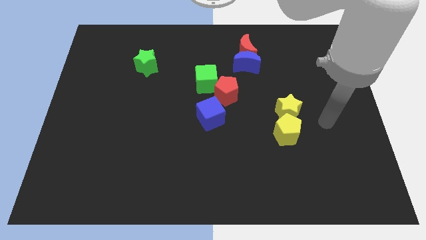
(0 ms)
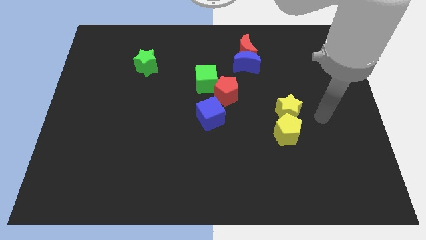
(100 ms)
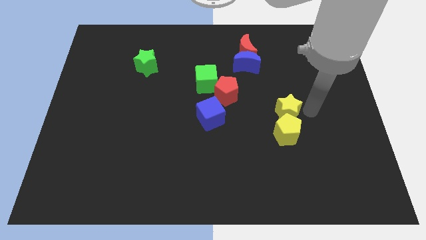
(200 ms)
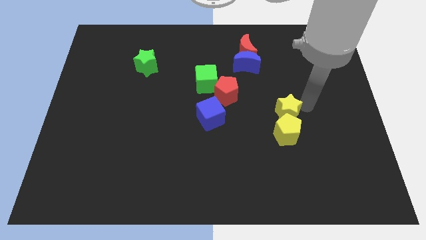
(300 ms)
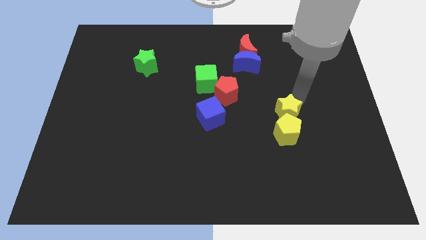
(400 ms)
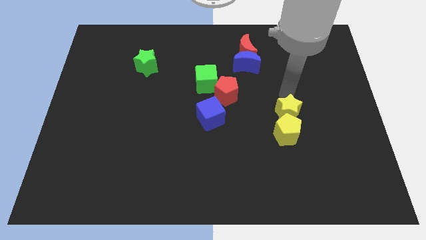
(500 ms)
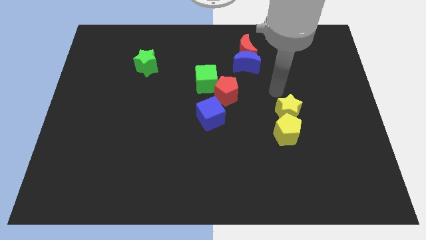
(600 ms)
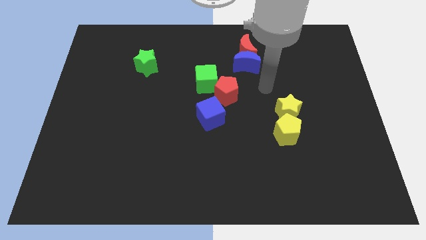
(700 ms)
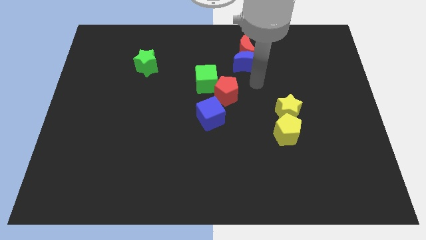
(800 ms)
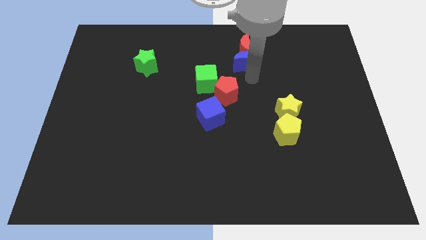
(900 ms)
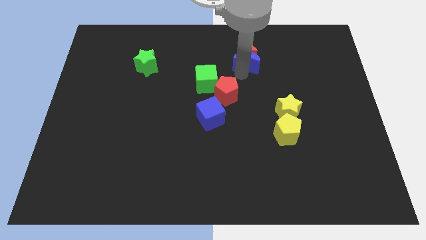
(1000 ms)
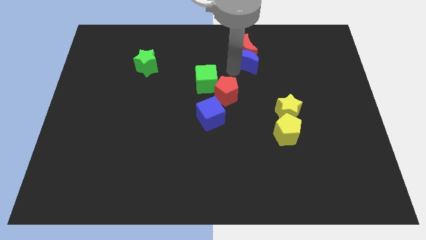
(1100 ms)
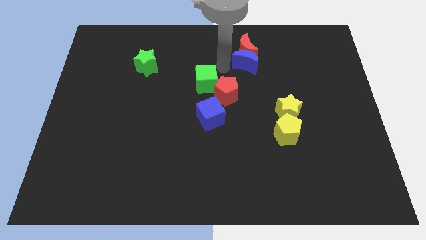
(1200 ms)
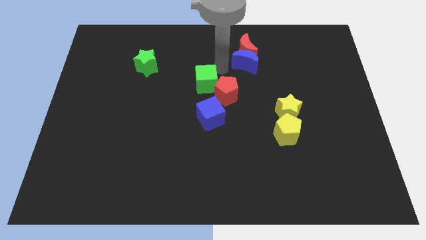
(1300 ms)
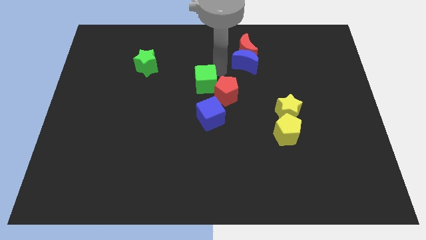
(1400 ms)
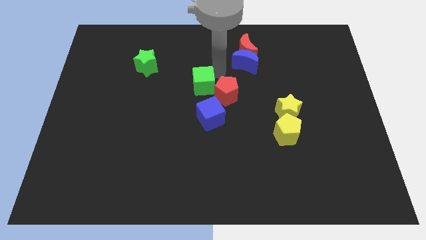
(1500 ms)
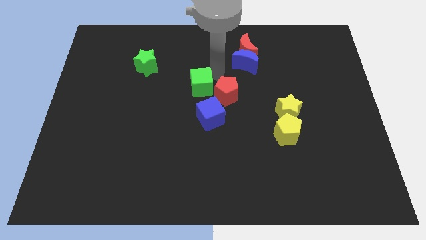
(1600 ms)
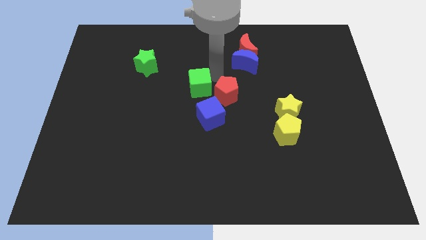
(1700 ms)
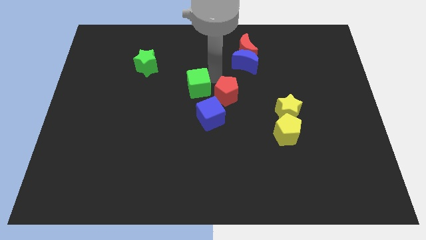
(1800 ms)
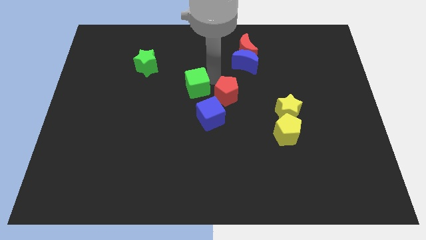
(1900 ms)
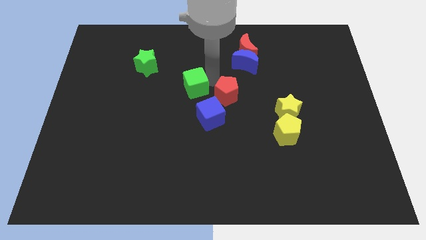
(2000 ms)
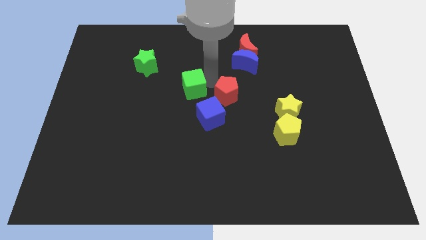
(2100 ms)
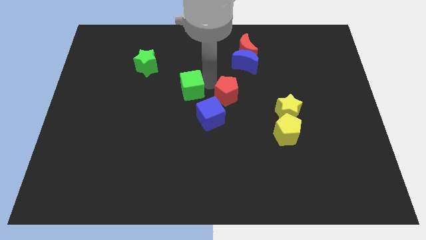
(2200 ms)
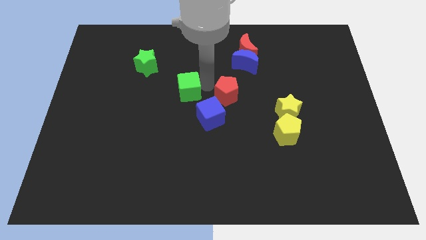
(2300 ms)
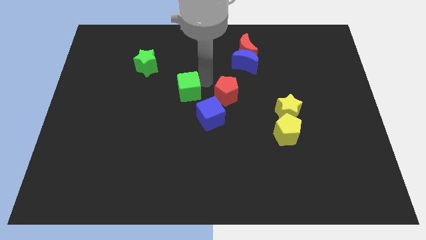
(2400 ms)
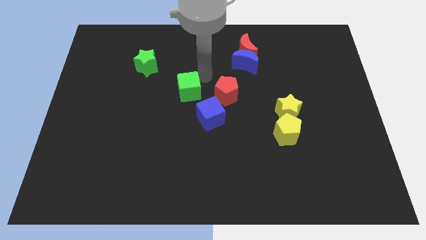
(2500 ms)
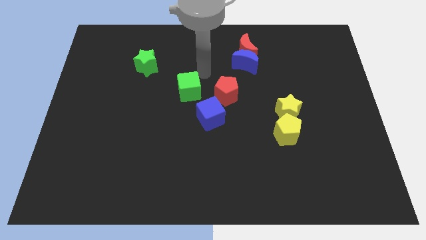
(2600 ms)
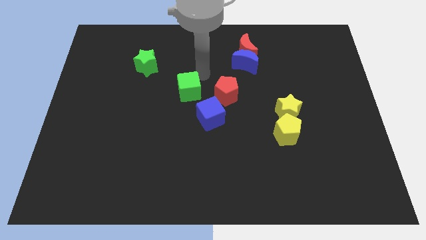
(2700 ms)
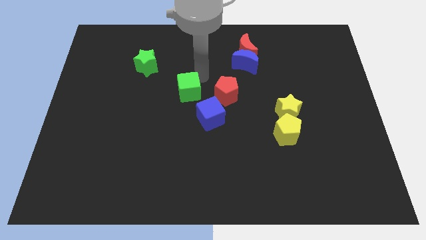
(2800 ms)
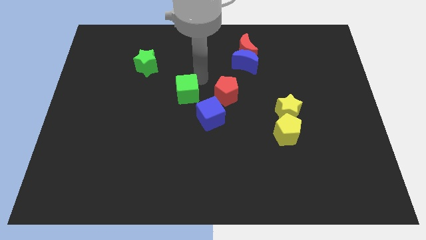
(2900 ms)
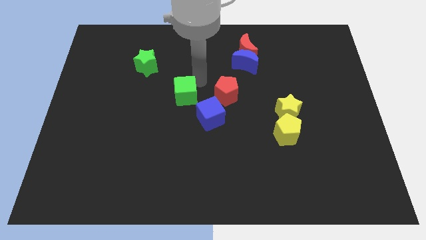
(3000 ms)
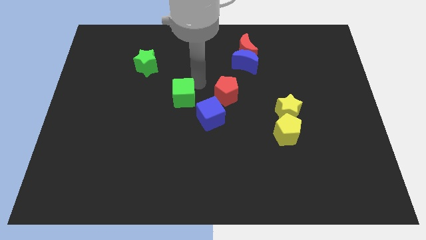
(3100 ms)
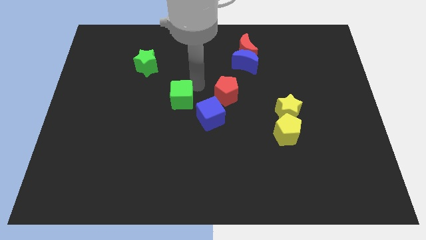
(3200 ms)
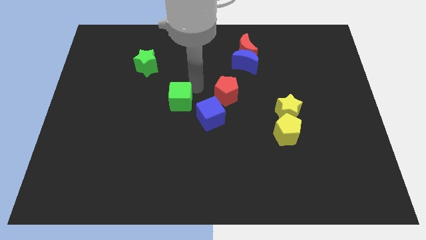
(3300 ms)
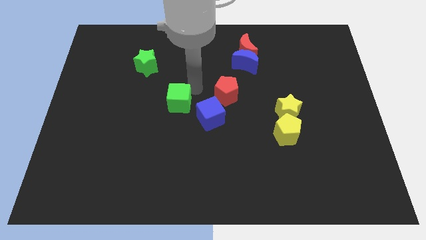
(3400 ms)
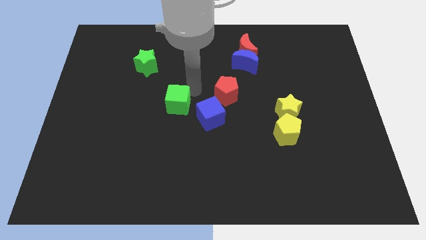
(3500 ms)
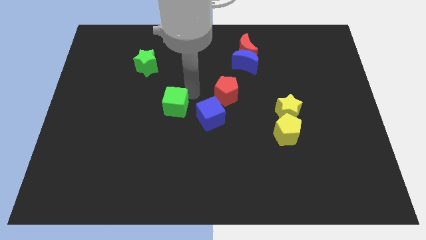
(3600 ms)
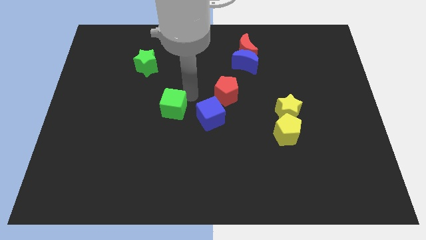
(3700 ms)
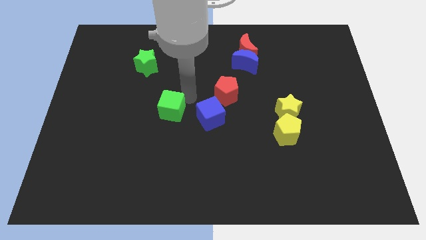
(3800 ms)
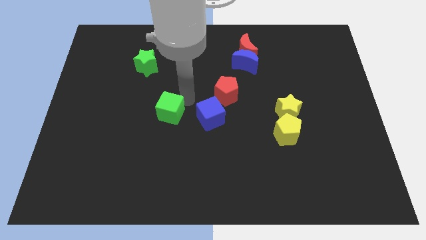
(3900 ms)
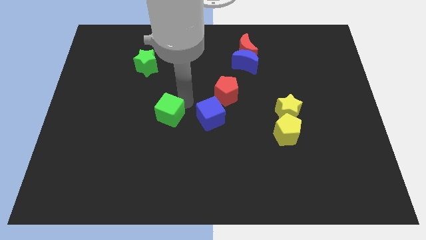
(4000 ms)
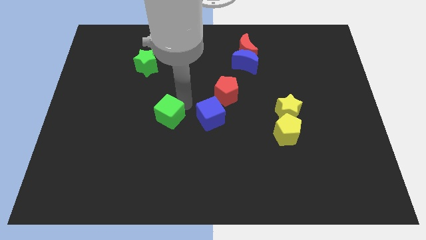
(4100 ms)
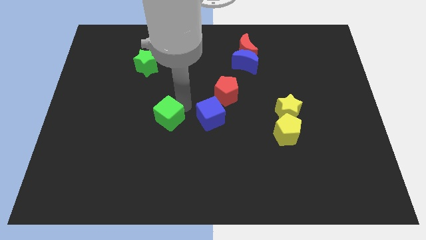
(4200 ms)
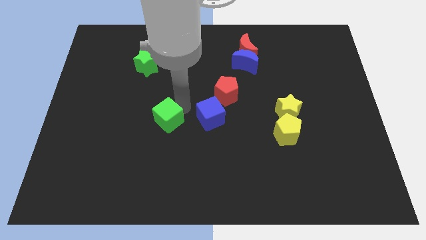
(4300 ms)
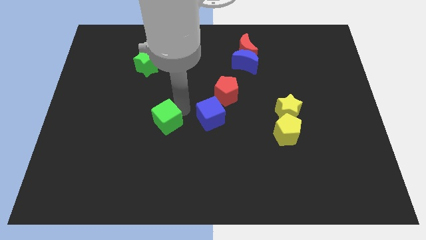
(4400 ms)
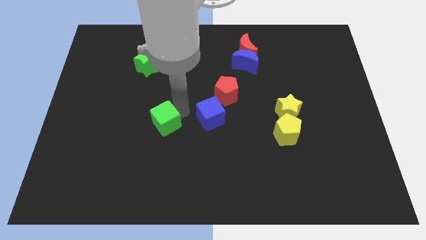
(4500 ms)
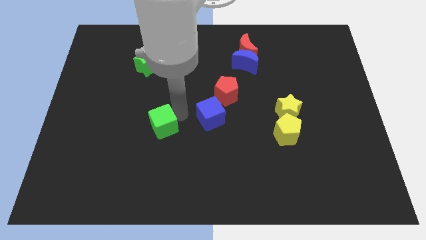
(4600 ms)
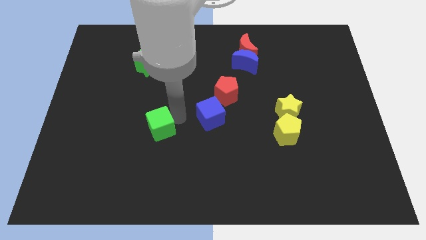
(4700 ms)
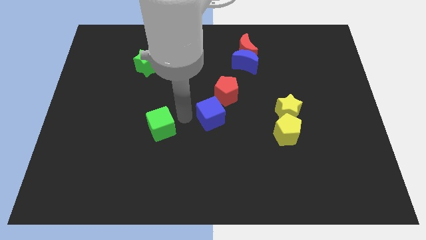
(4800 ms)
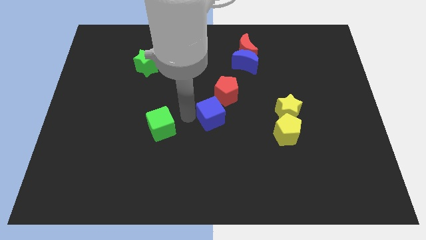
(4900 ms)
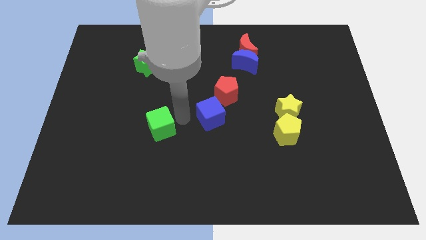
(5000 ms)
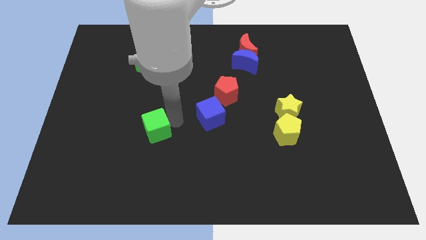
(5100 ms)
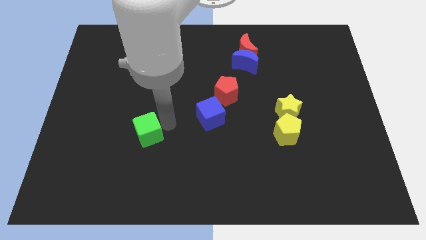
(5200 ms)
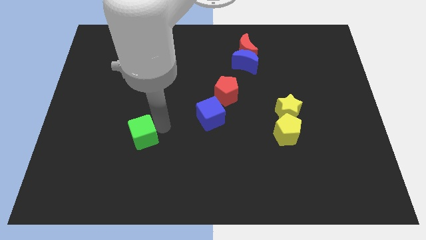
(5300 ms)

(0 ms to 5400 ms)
slide the green cube down and then left

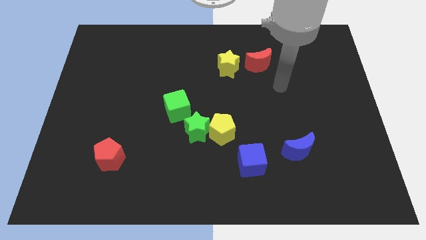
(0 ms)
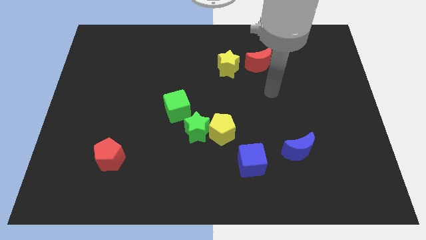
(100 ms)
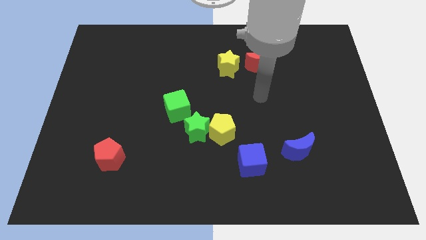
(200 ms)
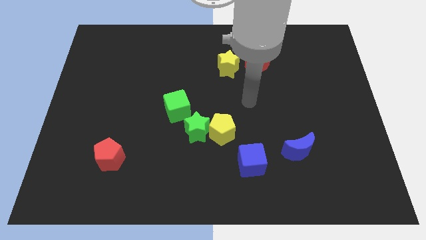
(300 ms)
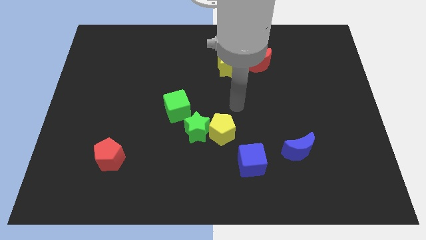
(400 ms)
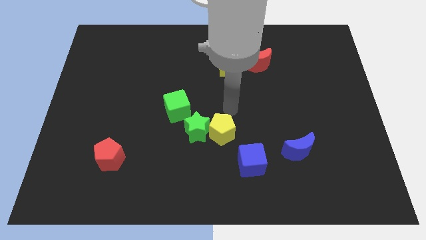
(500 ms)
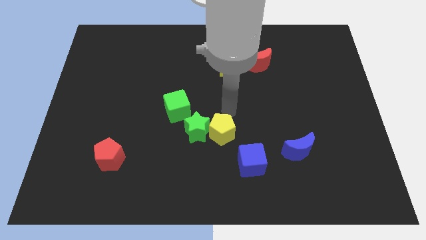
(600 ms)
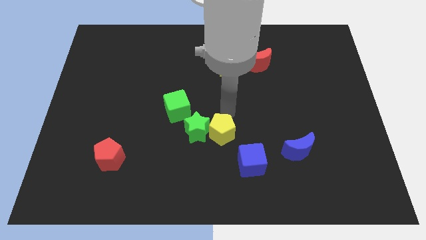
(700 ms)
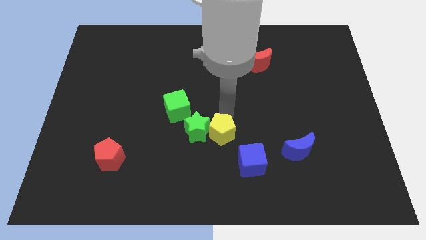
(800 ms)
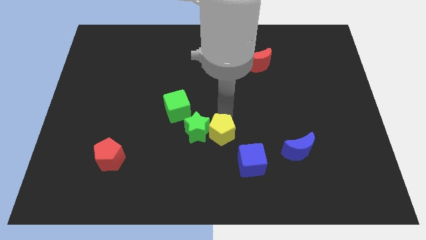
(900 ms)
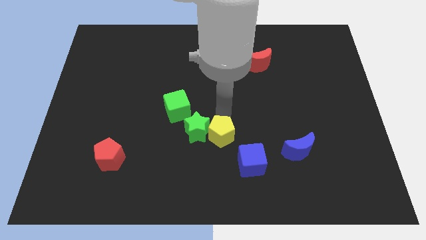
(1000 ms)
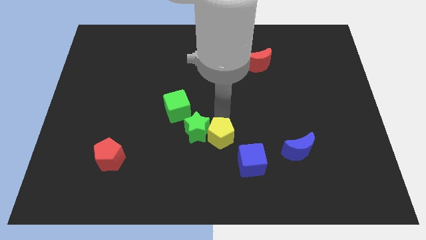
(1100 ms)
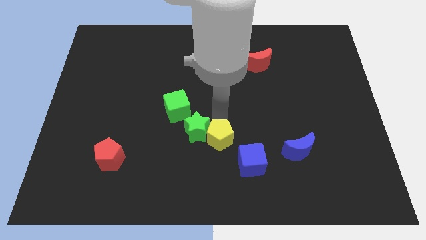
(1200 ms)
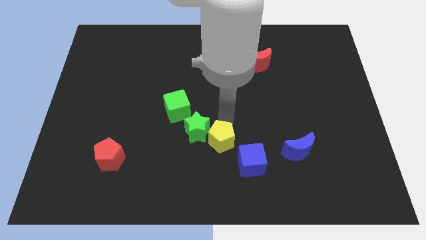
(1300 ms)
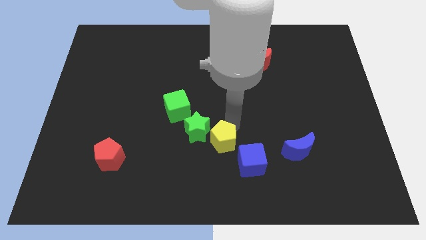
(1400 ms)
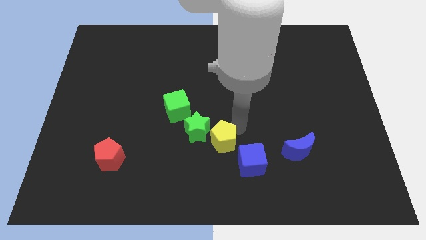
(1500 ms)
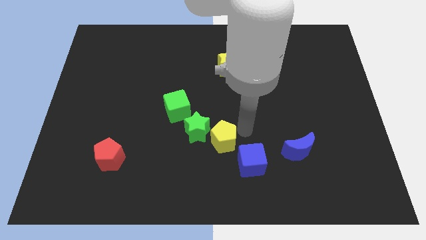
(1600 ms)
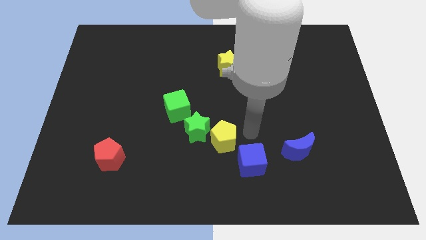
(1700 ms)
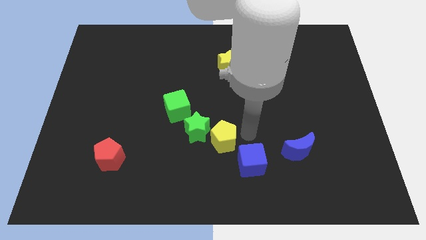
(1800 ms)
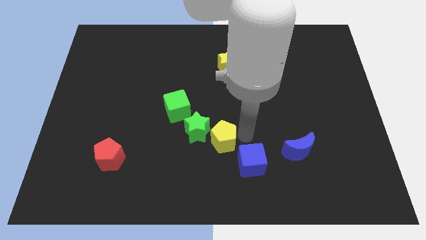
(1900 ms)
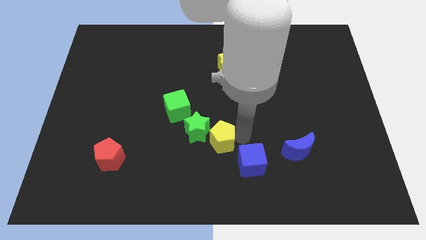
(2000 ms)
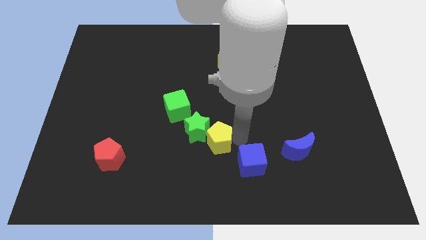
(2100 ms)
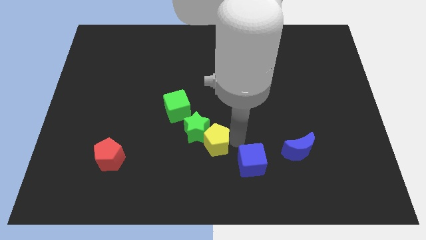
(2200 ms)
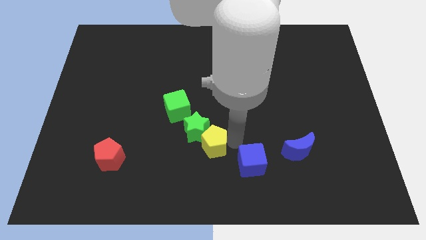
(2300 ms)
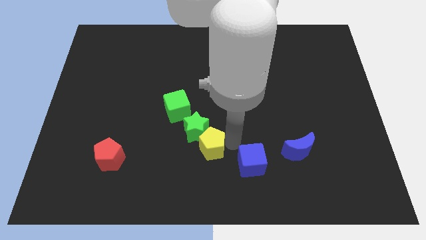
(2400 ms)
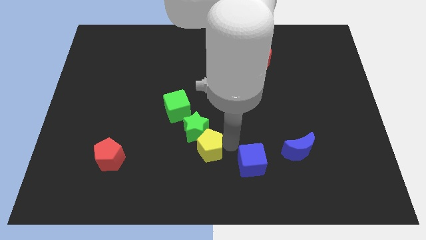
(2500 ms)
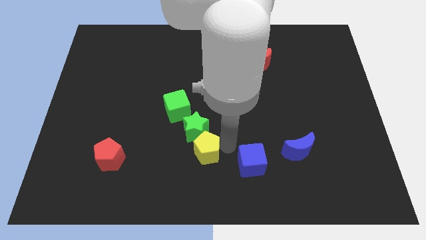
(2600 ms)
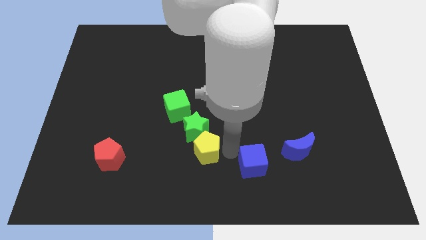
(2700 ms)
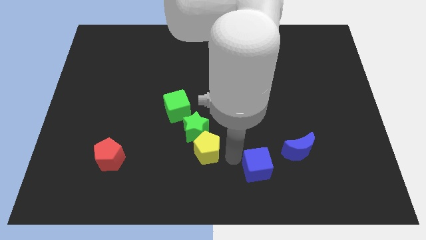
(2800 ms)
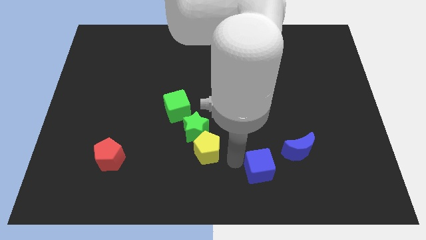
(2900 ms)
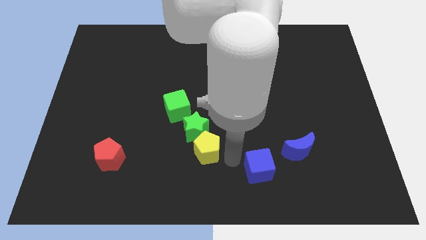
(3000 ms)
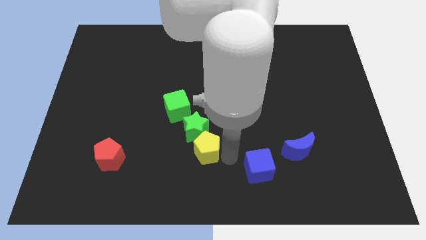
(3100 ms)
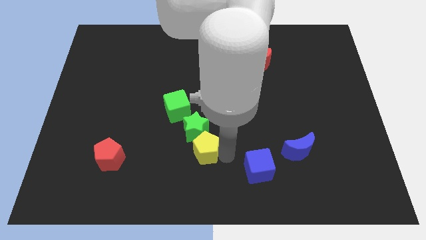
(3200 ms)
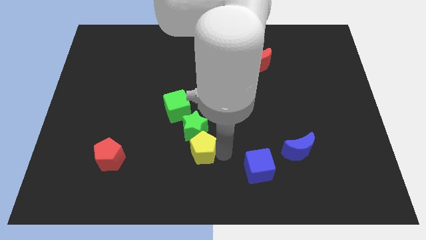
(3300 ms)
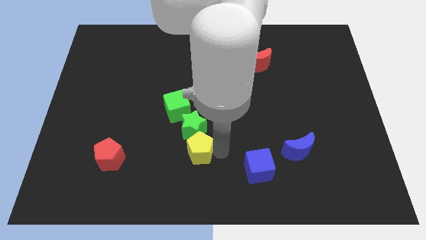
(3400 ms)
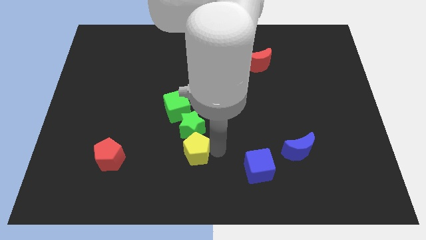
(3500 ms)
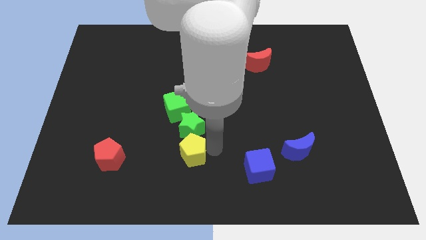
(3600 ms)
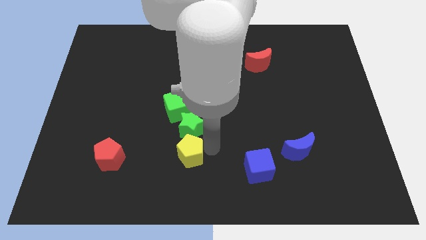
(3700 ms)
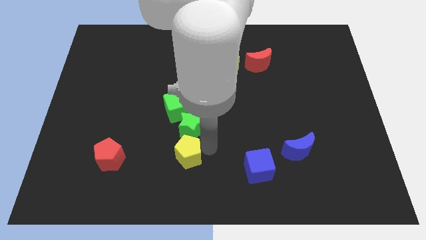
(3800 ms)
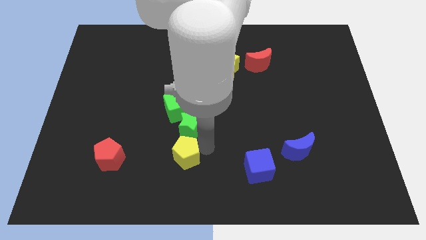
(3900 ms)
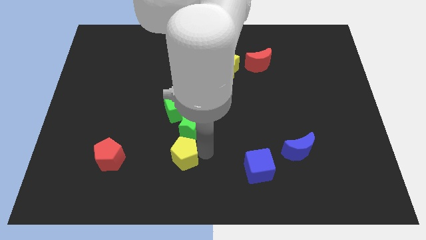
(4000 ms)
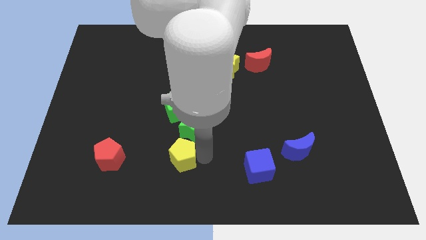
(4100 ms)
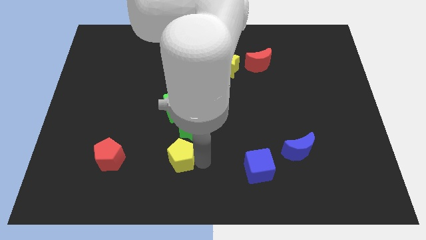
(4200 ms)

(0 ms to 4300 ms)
slightly push the yellow pentagon to the left
